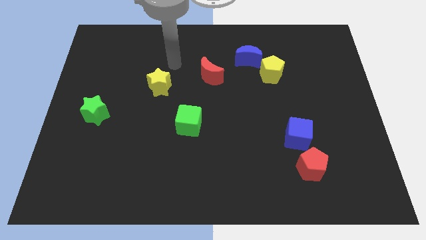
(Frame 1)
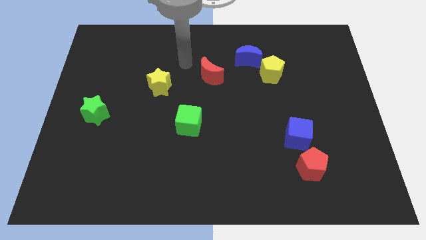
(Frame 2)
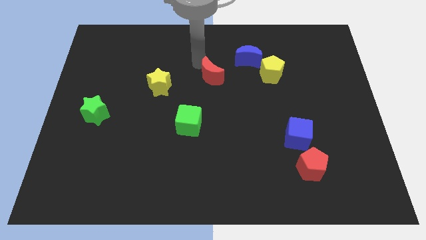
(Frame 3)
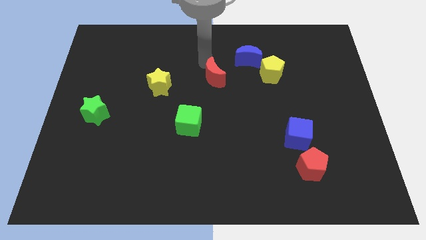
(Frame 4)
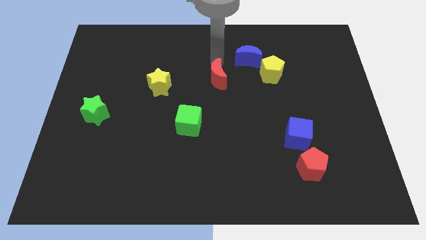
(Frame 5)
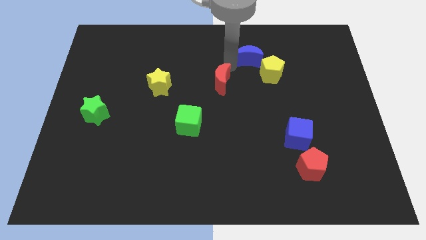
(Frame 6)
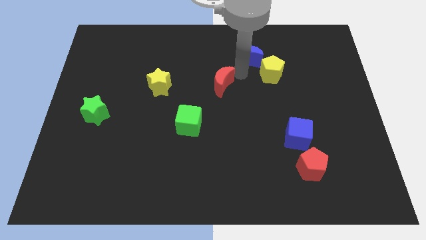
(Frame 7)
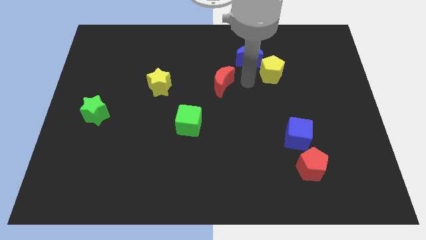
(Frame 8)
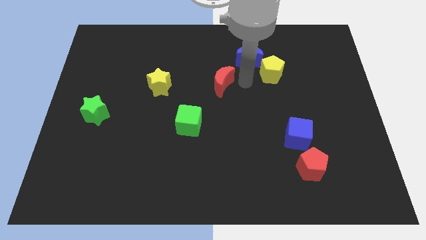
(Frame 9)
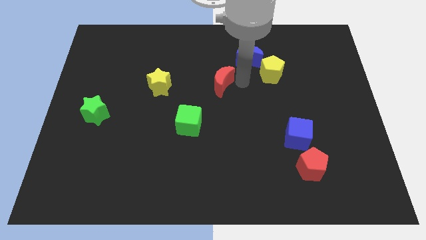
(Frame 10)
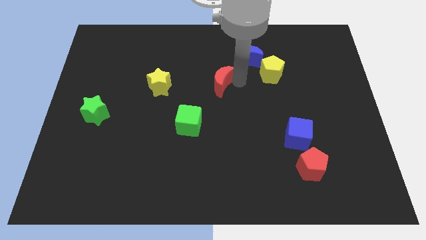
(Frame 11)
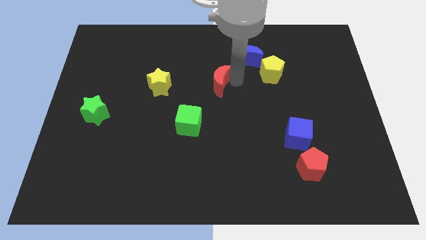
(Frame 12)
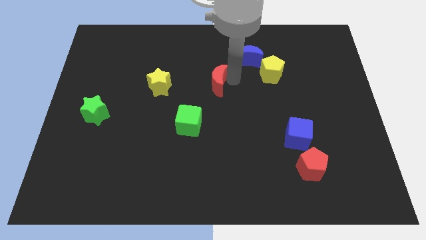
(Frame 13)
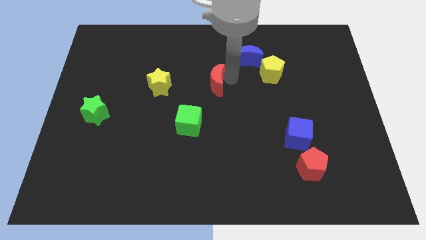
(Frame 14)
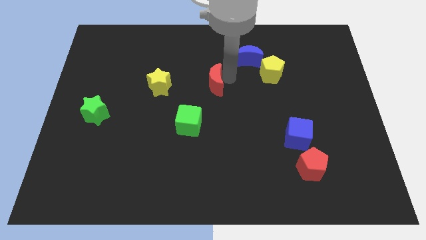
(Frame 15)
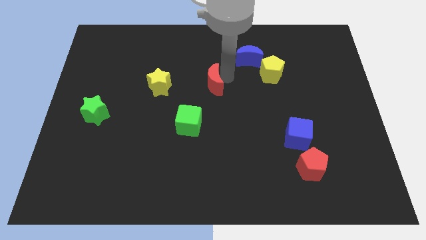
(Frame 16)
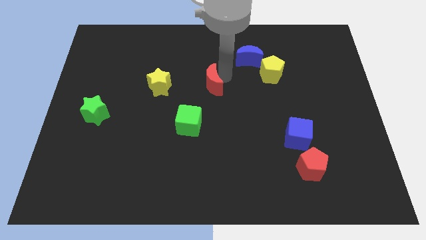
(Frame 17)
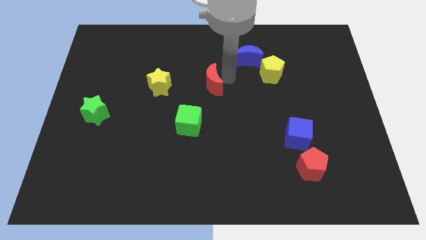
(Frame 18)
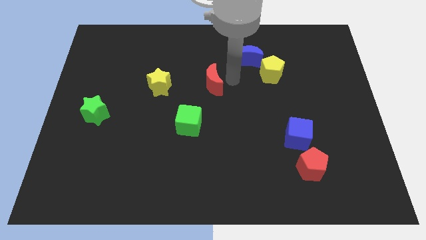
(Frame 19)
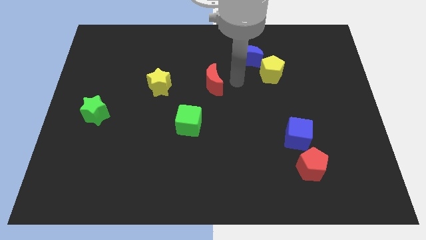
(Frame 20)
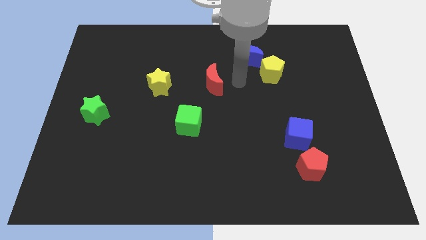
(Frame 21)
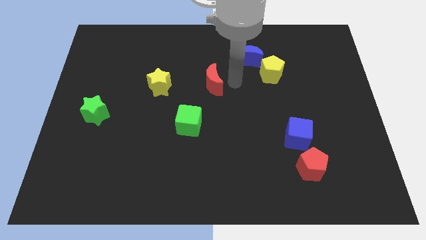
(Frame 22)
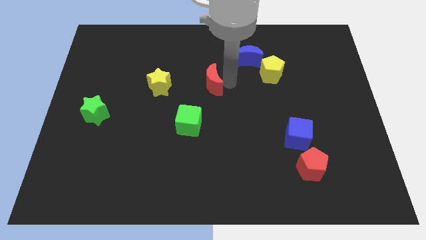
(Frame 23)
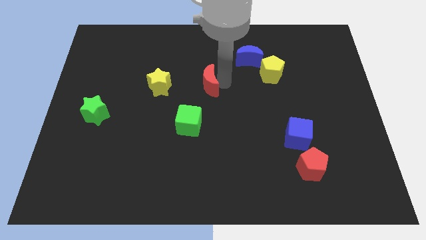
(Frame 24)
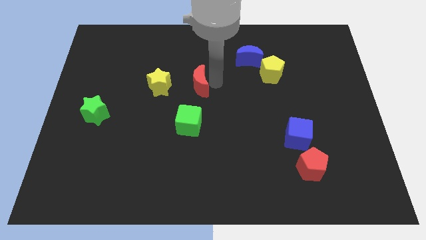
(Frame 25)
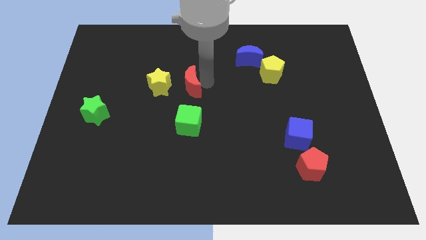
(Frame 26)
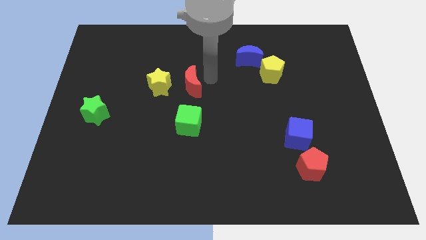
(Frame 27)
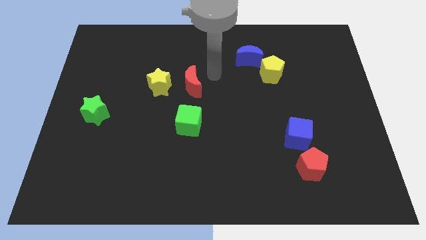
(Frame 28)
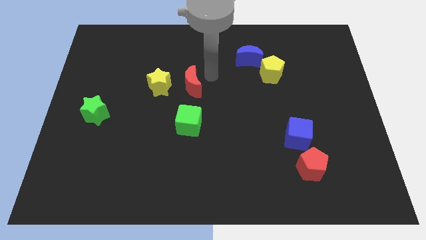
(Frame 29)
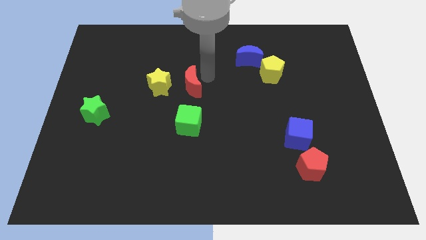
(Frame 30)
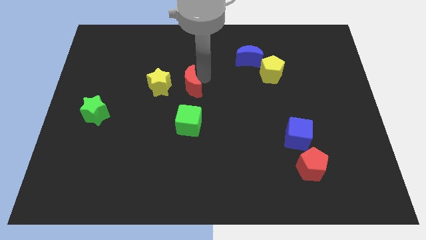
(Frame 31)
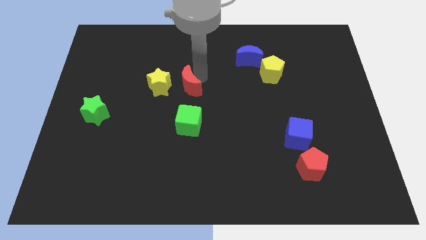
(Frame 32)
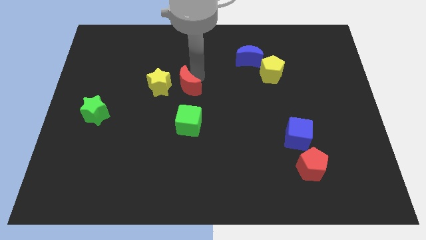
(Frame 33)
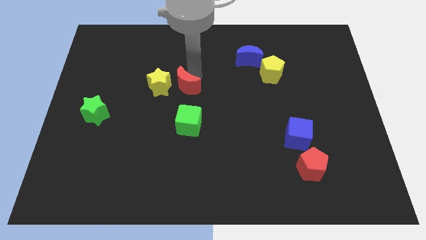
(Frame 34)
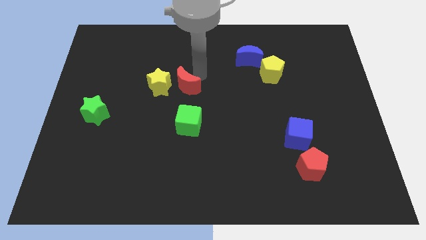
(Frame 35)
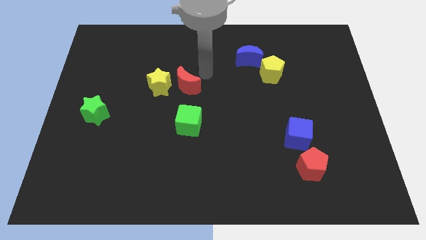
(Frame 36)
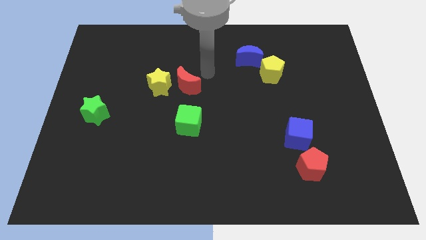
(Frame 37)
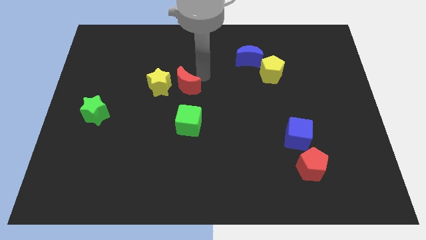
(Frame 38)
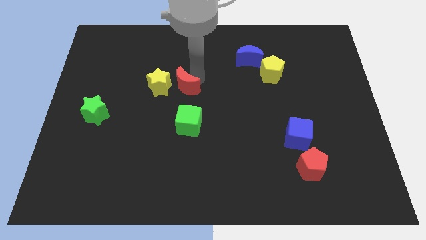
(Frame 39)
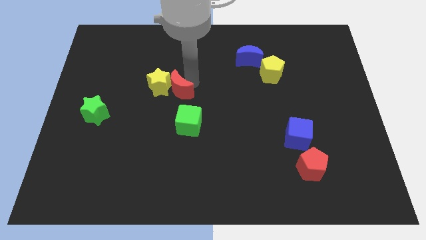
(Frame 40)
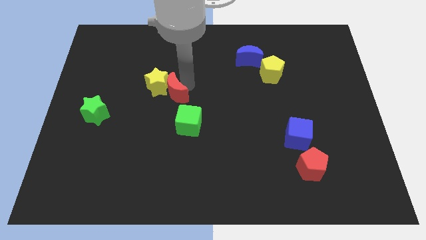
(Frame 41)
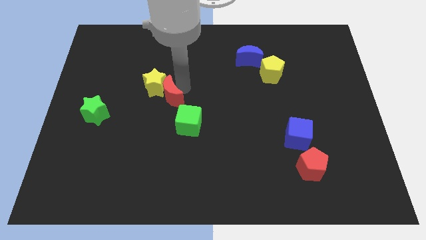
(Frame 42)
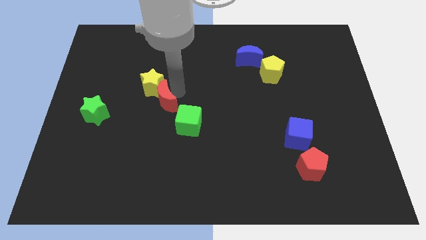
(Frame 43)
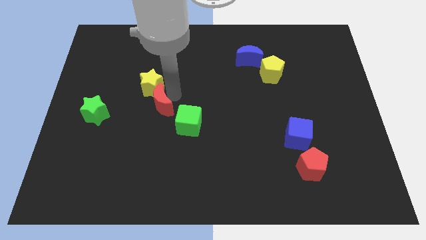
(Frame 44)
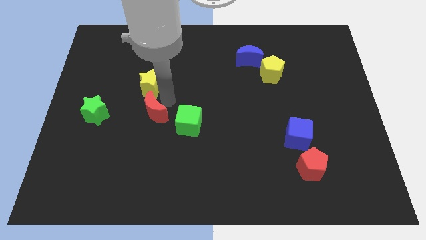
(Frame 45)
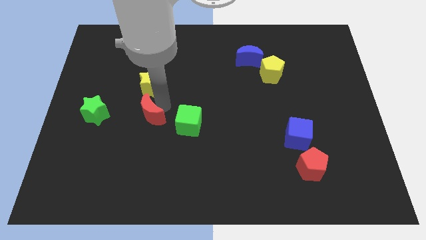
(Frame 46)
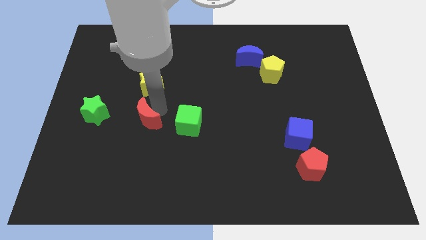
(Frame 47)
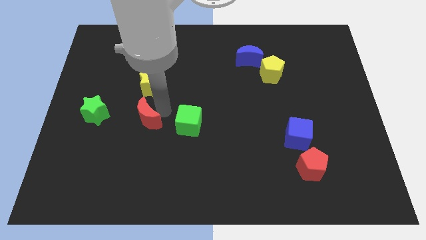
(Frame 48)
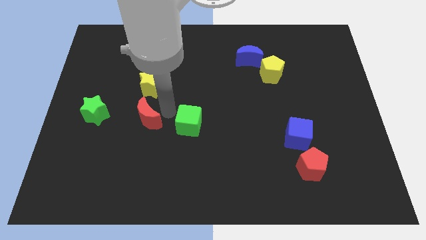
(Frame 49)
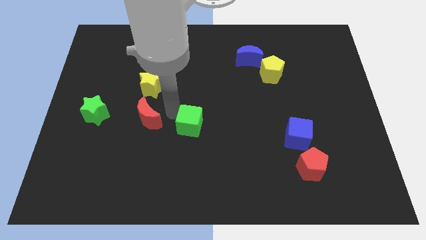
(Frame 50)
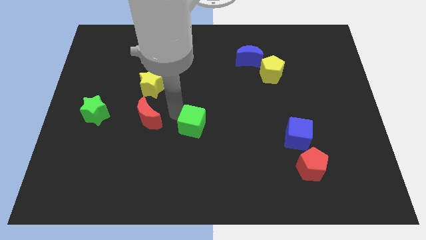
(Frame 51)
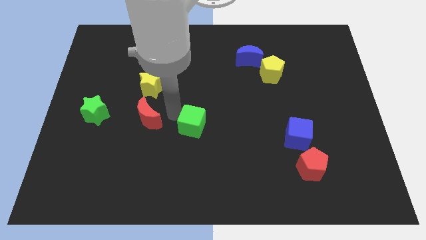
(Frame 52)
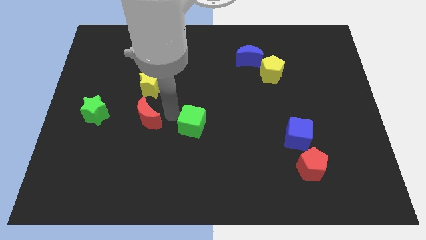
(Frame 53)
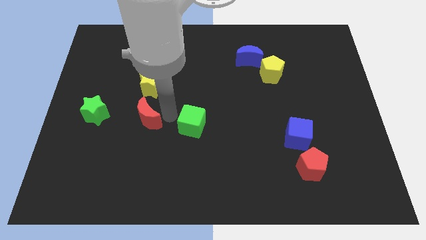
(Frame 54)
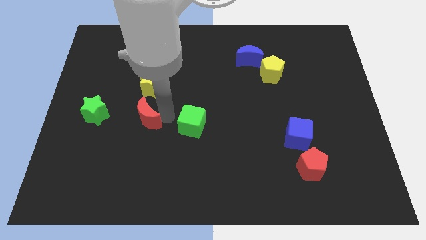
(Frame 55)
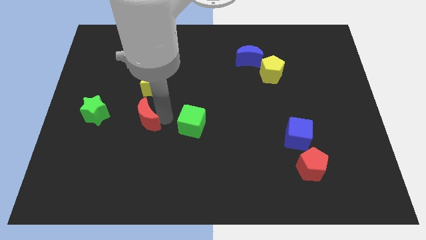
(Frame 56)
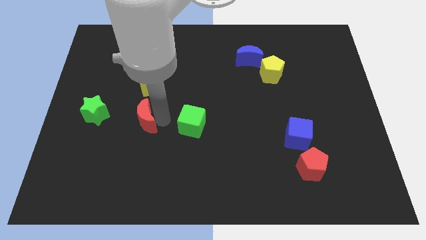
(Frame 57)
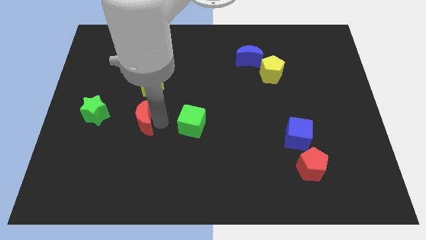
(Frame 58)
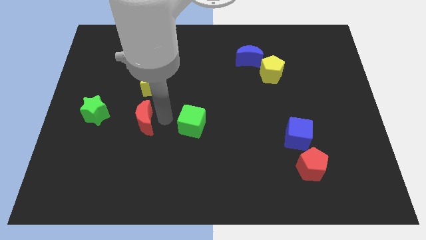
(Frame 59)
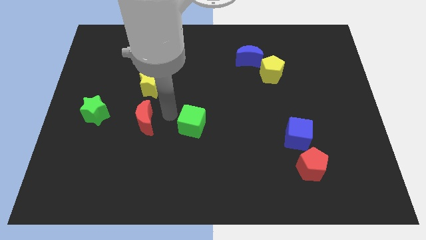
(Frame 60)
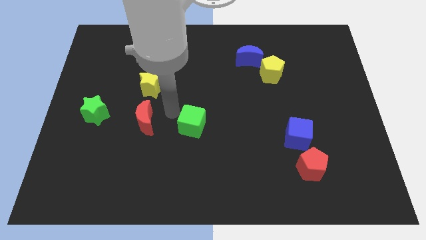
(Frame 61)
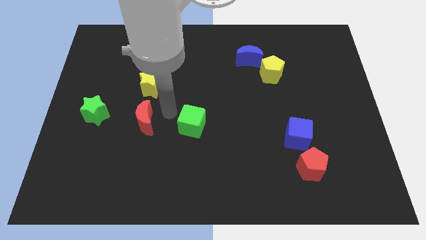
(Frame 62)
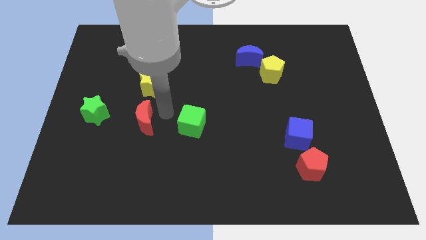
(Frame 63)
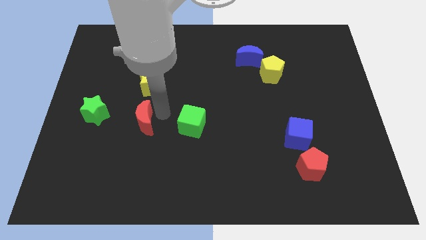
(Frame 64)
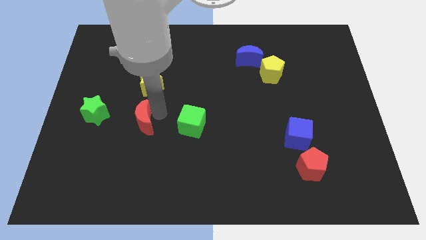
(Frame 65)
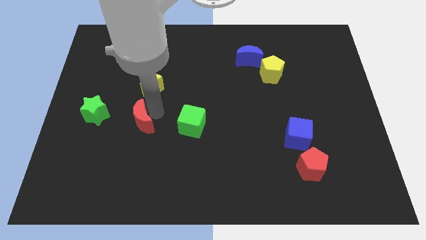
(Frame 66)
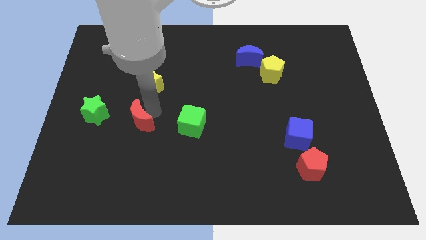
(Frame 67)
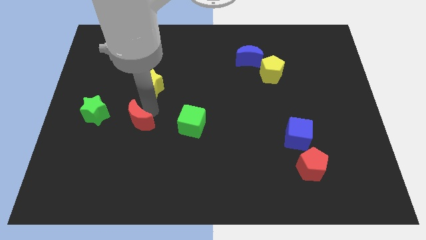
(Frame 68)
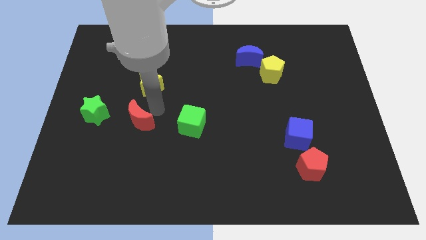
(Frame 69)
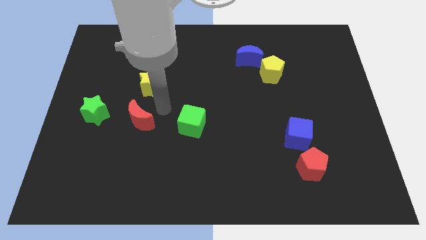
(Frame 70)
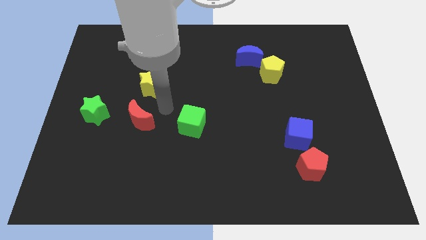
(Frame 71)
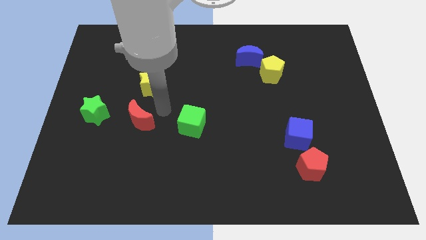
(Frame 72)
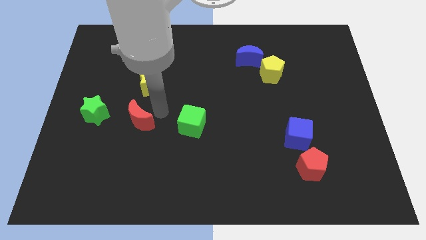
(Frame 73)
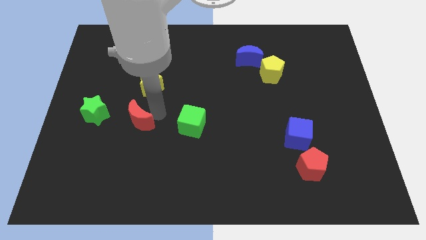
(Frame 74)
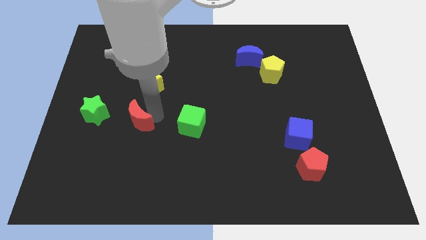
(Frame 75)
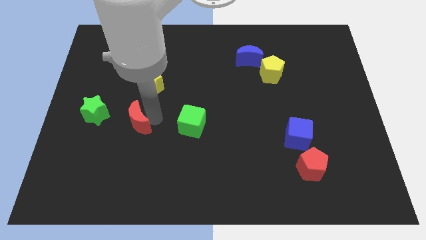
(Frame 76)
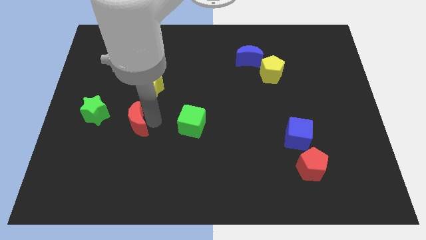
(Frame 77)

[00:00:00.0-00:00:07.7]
put the red moon to the bottom right side of the green star
